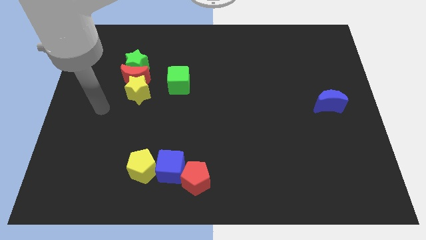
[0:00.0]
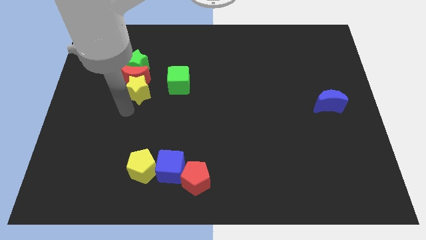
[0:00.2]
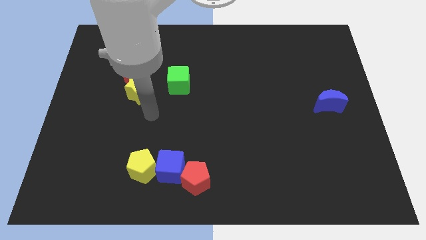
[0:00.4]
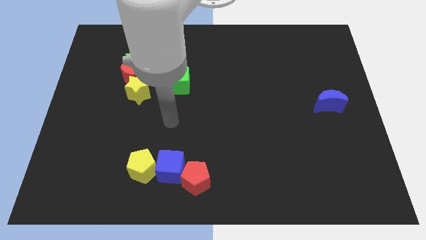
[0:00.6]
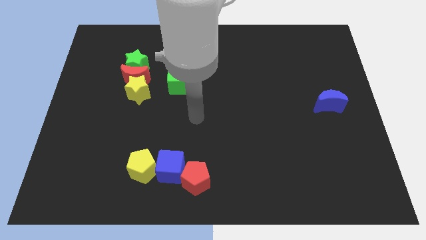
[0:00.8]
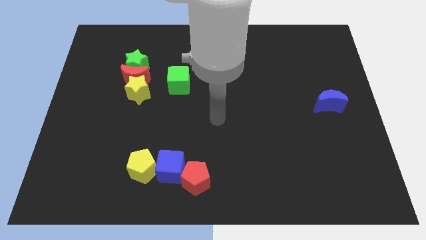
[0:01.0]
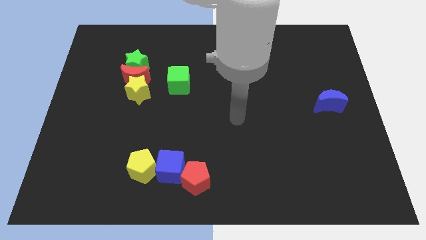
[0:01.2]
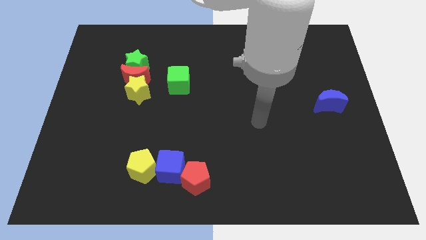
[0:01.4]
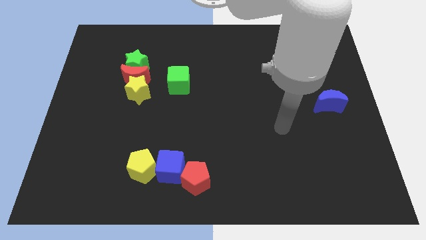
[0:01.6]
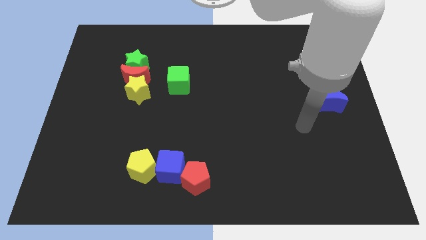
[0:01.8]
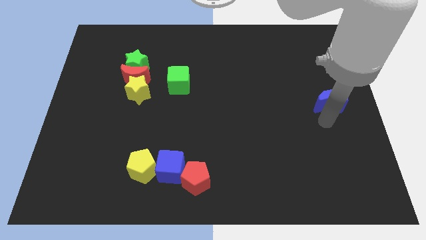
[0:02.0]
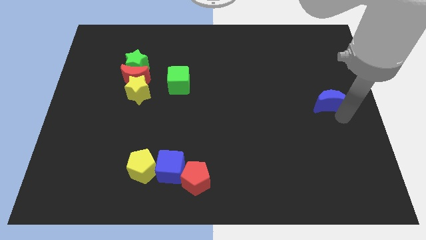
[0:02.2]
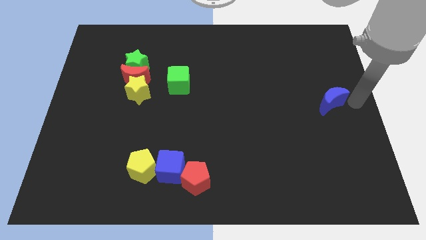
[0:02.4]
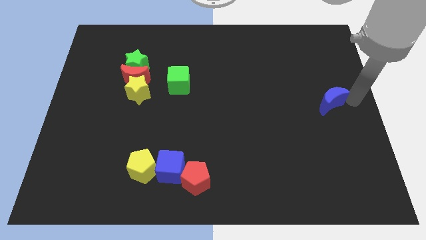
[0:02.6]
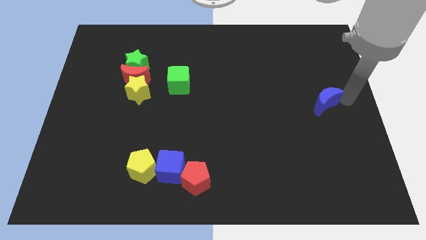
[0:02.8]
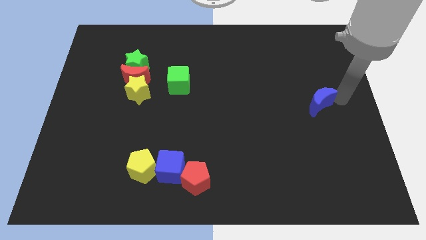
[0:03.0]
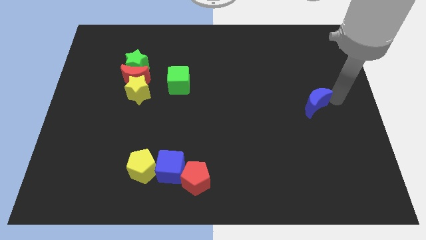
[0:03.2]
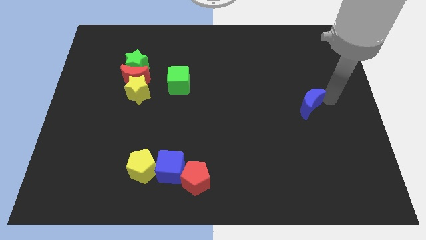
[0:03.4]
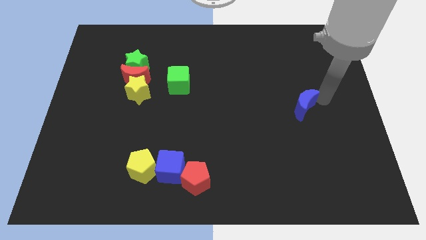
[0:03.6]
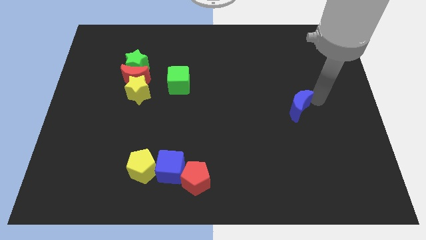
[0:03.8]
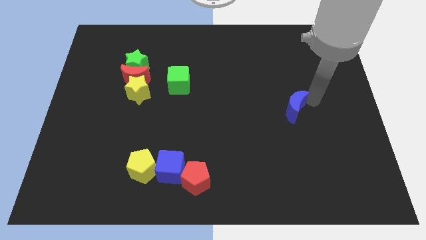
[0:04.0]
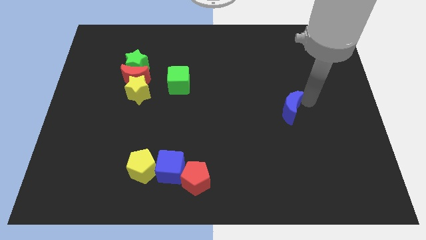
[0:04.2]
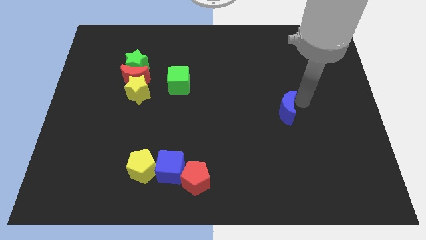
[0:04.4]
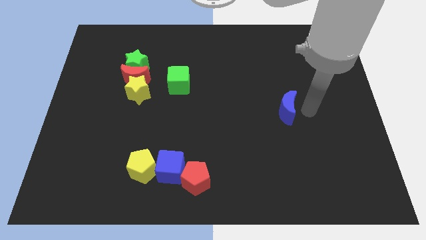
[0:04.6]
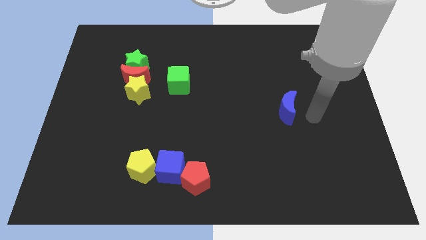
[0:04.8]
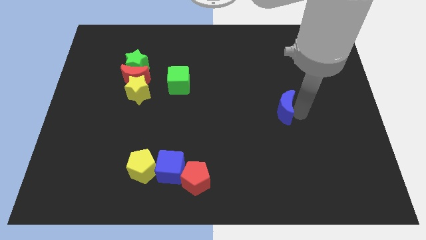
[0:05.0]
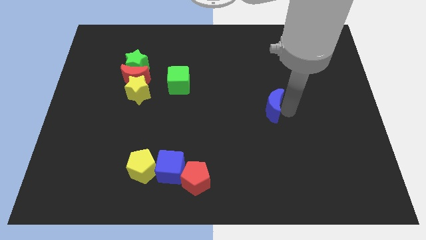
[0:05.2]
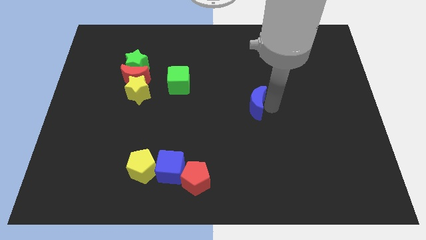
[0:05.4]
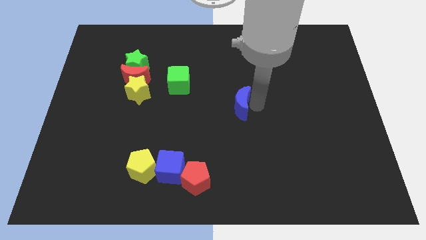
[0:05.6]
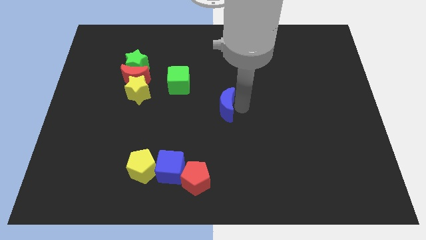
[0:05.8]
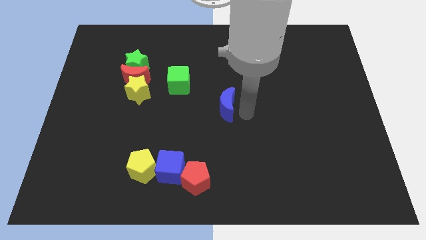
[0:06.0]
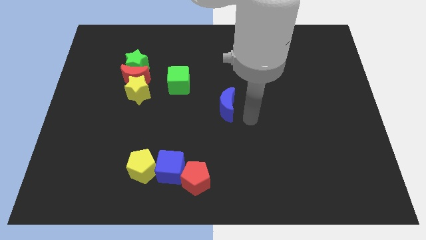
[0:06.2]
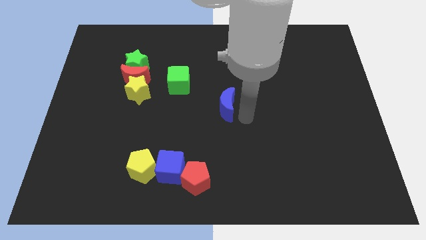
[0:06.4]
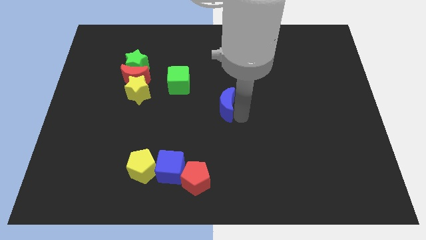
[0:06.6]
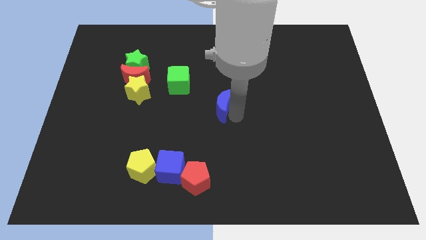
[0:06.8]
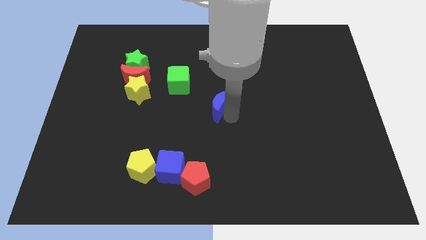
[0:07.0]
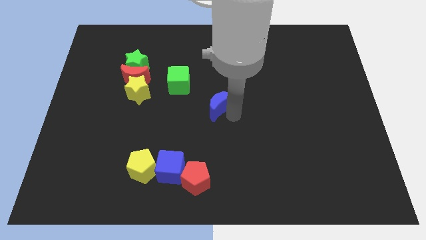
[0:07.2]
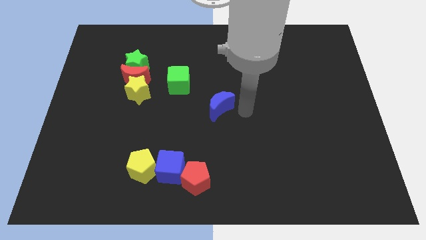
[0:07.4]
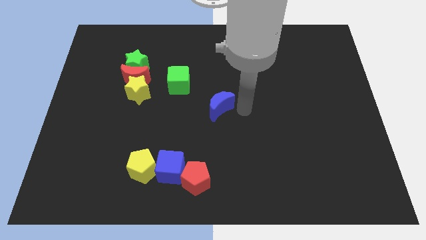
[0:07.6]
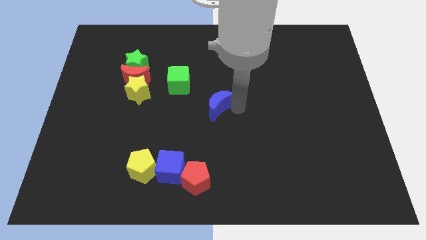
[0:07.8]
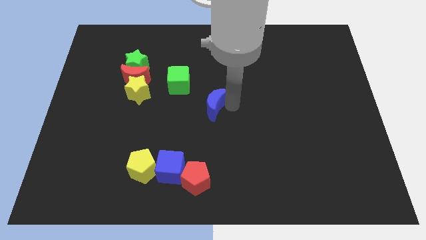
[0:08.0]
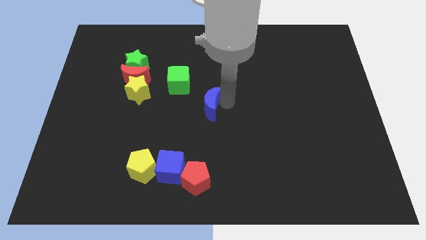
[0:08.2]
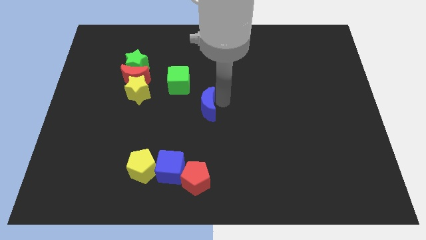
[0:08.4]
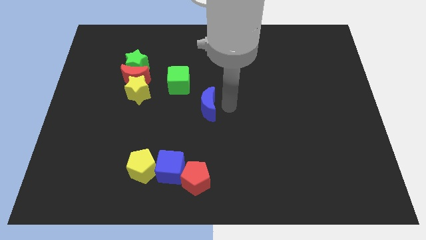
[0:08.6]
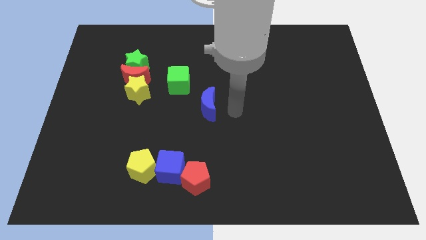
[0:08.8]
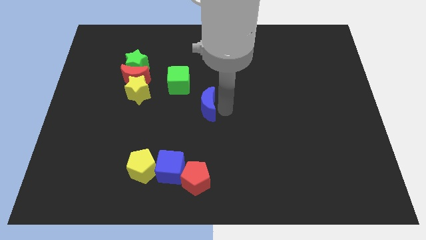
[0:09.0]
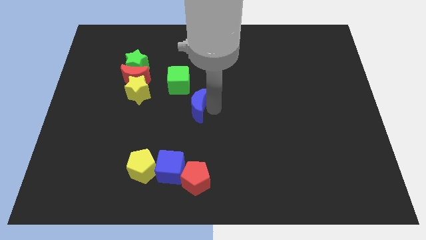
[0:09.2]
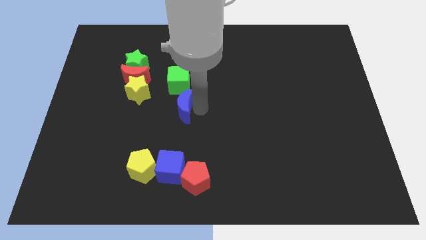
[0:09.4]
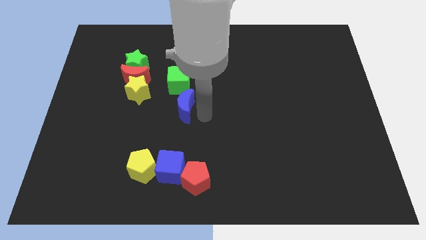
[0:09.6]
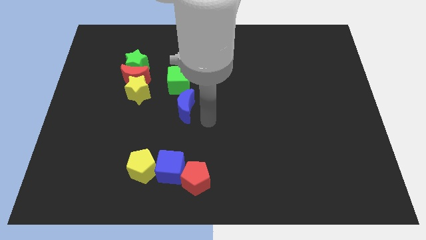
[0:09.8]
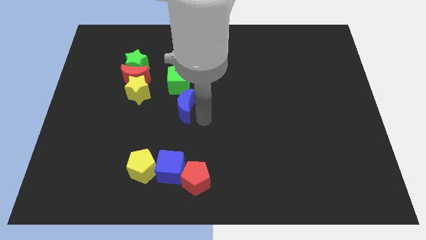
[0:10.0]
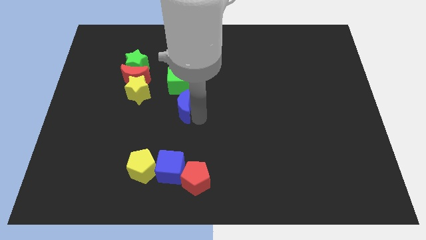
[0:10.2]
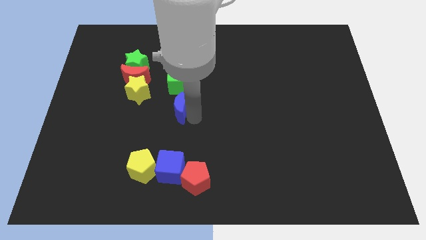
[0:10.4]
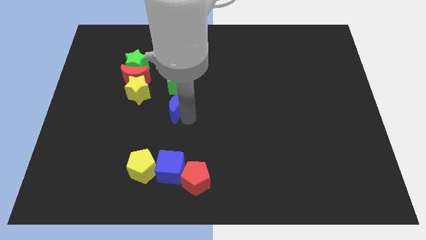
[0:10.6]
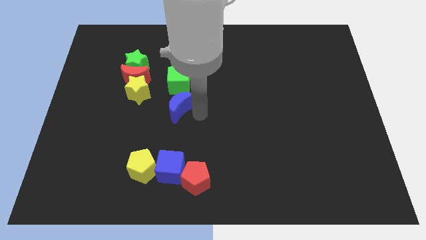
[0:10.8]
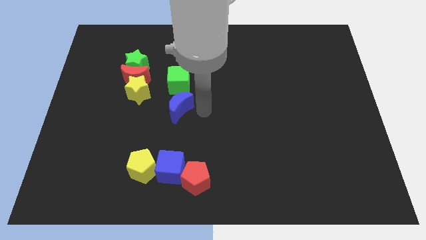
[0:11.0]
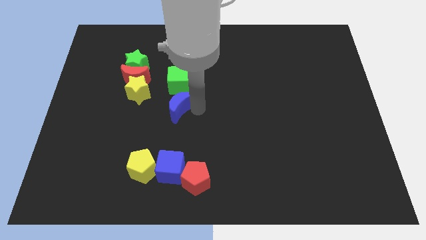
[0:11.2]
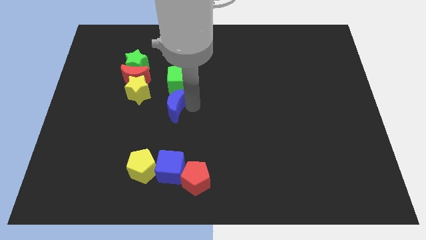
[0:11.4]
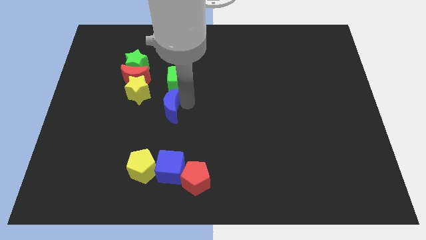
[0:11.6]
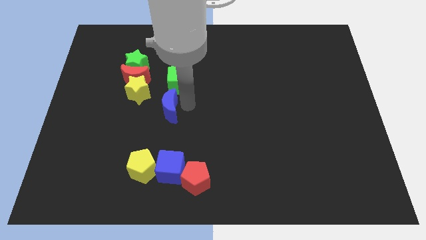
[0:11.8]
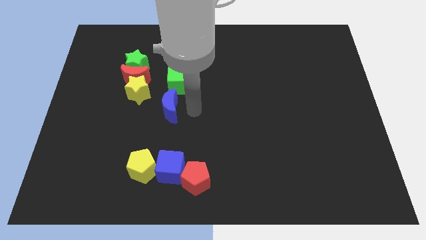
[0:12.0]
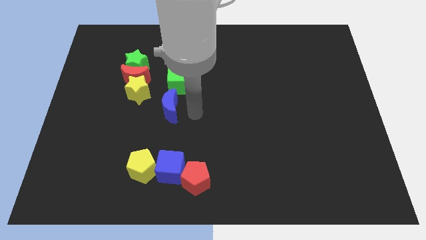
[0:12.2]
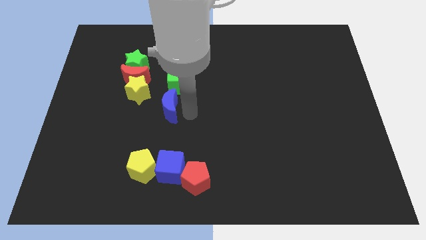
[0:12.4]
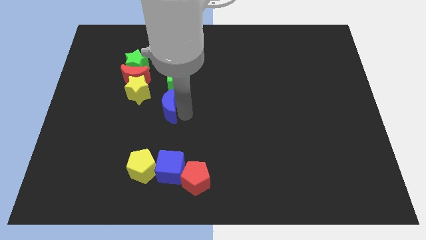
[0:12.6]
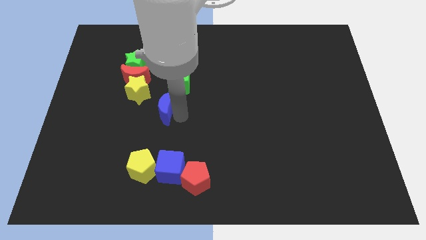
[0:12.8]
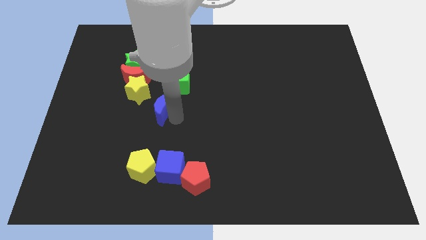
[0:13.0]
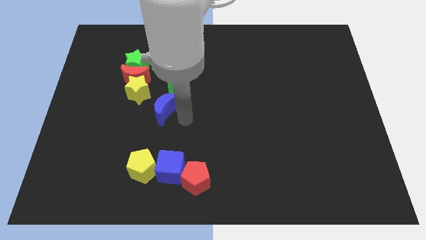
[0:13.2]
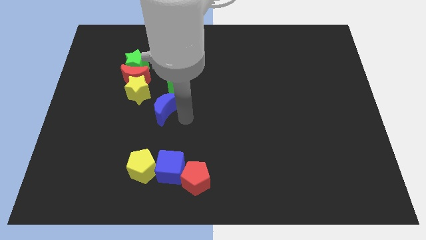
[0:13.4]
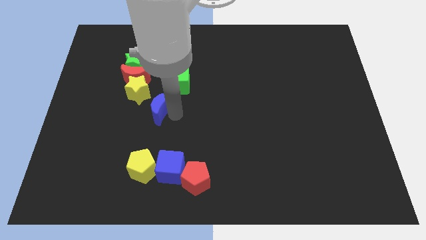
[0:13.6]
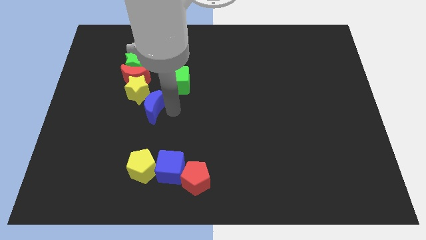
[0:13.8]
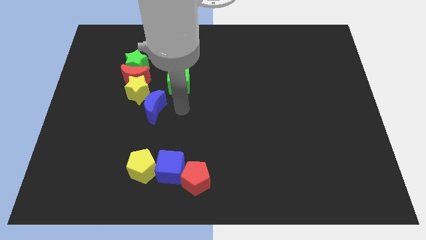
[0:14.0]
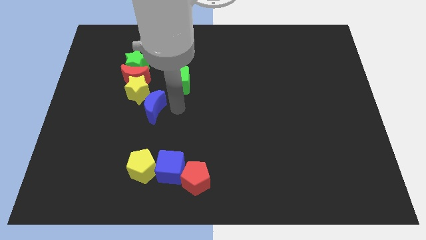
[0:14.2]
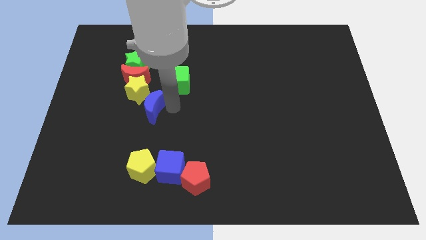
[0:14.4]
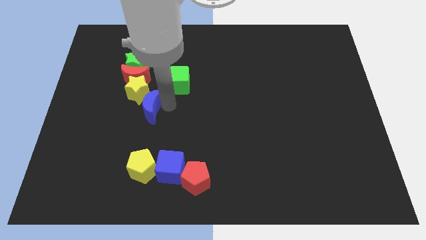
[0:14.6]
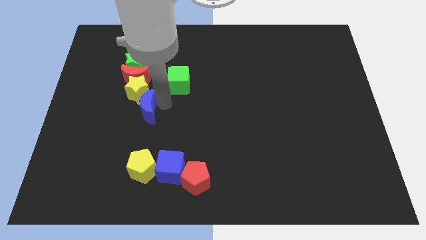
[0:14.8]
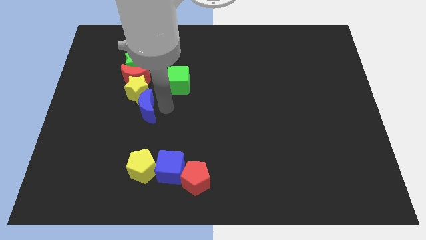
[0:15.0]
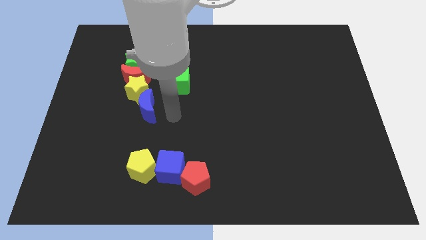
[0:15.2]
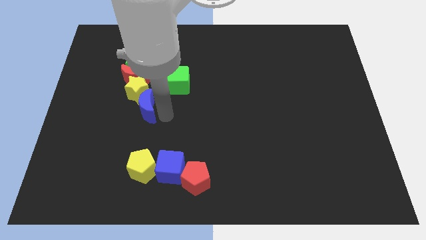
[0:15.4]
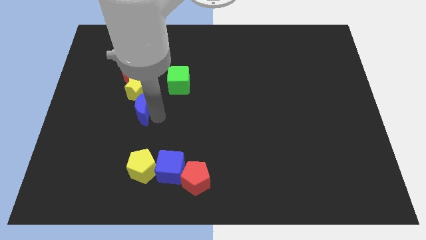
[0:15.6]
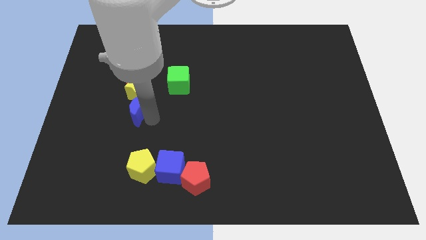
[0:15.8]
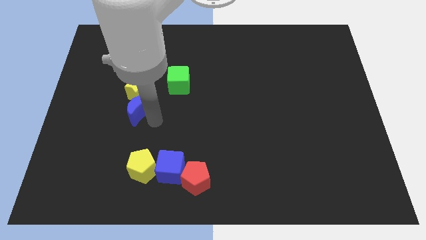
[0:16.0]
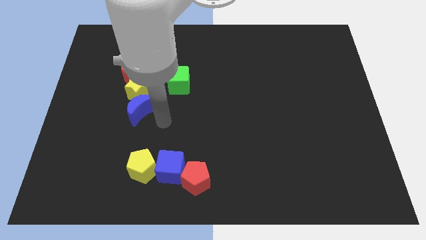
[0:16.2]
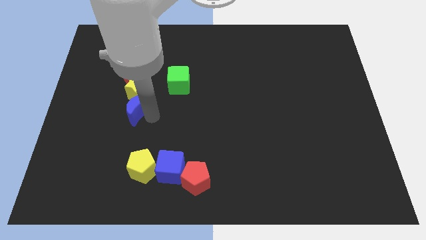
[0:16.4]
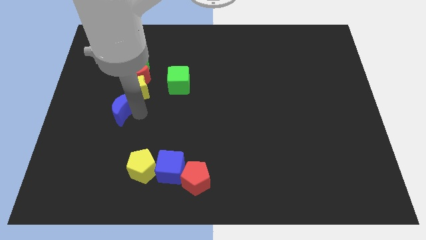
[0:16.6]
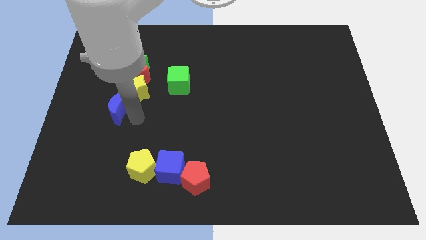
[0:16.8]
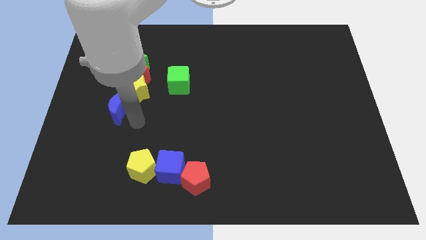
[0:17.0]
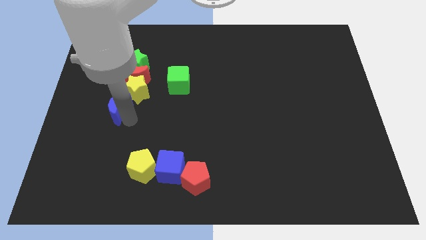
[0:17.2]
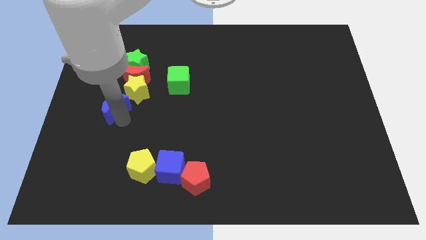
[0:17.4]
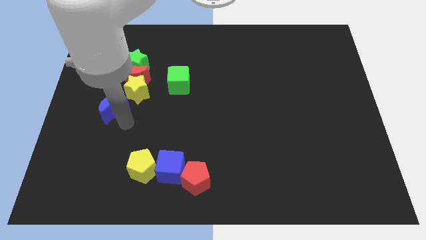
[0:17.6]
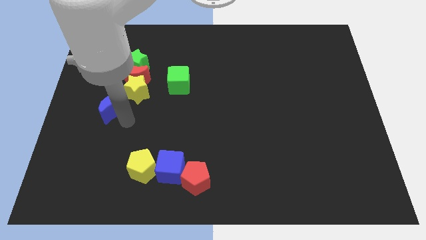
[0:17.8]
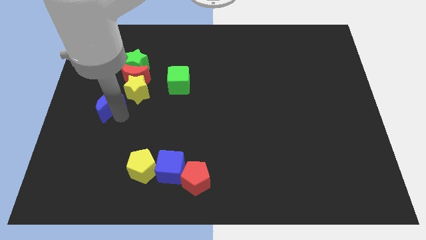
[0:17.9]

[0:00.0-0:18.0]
put the blue moon to the left side of the yellow star
